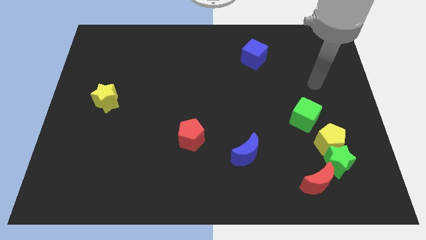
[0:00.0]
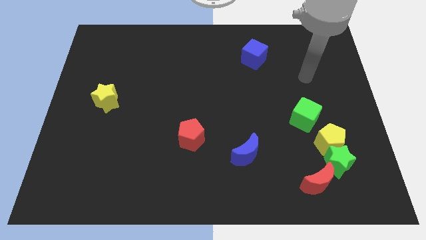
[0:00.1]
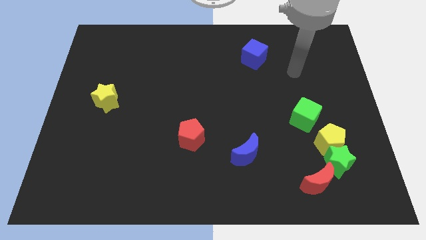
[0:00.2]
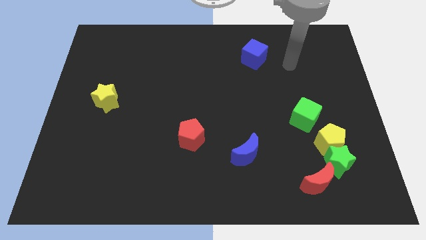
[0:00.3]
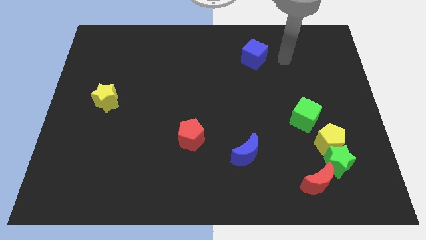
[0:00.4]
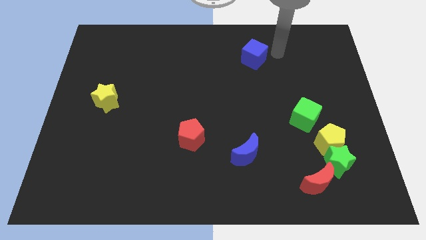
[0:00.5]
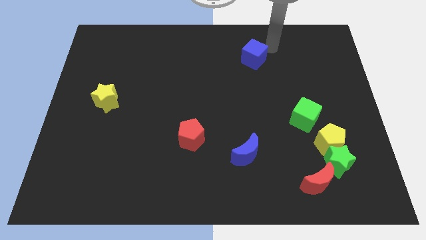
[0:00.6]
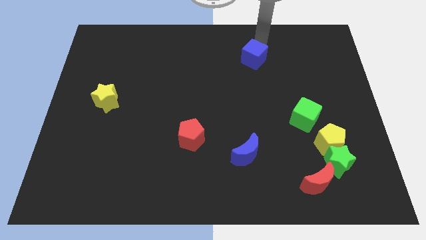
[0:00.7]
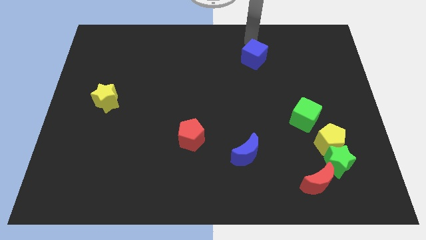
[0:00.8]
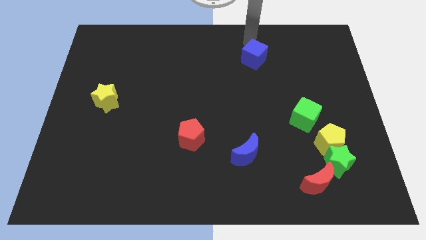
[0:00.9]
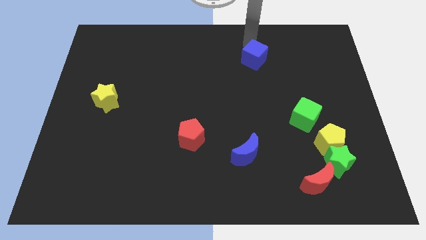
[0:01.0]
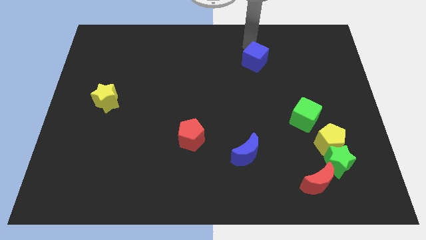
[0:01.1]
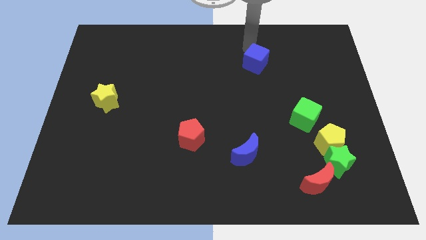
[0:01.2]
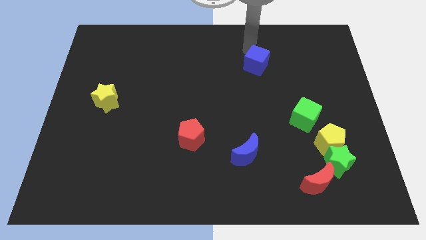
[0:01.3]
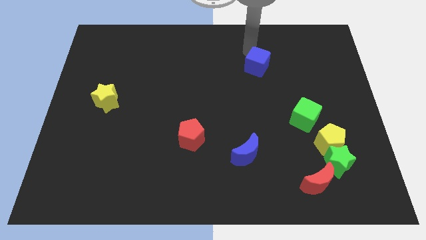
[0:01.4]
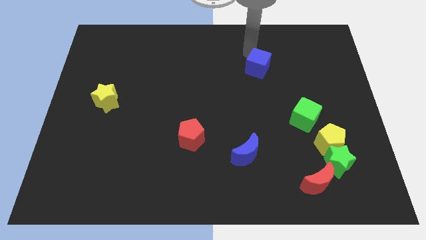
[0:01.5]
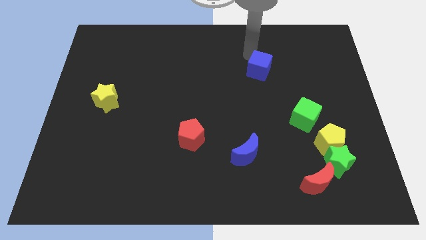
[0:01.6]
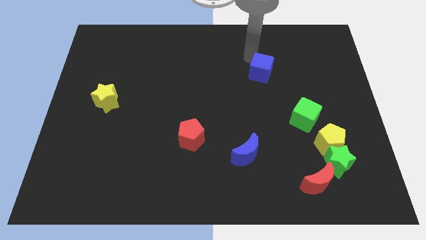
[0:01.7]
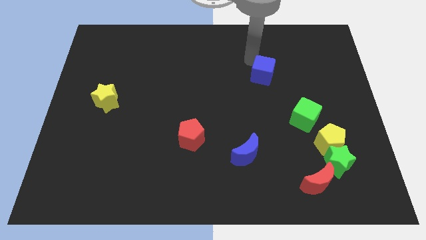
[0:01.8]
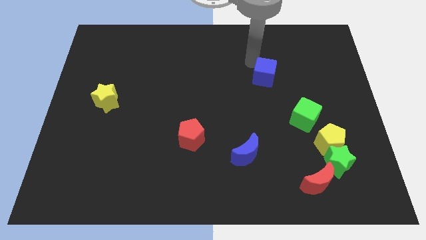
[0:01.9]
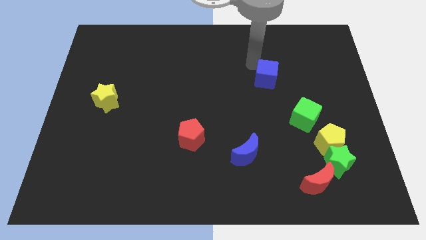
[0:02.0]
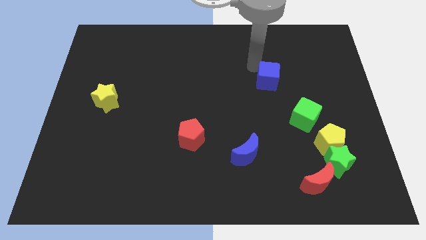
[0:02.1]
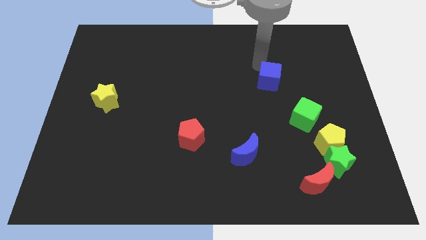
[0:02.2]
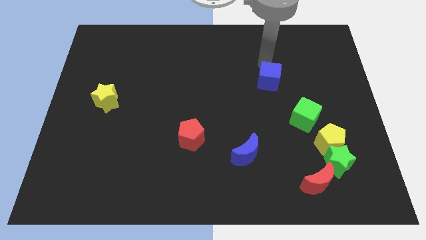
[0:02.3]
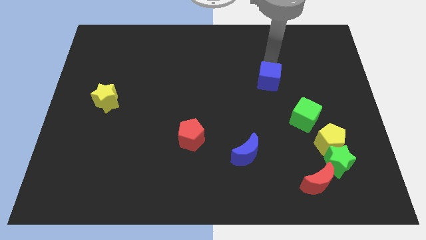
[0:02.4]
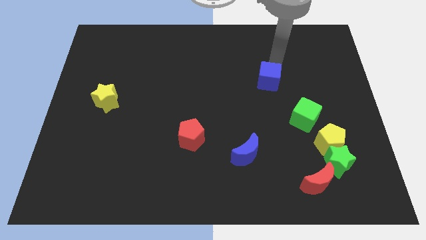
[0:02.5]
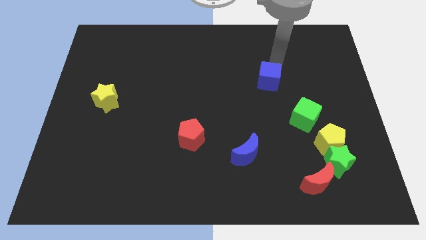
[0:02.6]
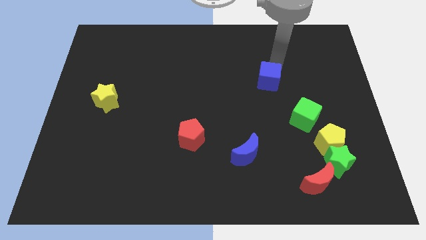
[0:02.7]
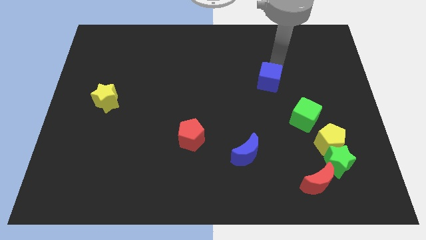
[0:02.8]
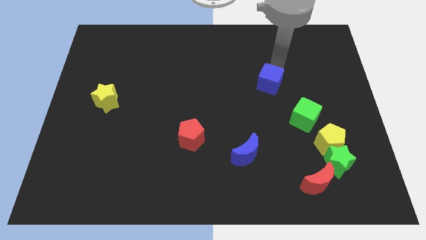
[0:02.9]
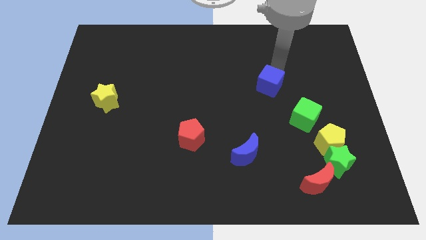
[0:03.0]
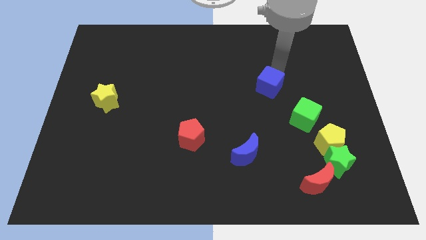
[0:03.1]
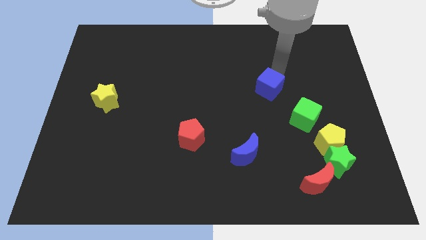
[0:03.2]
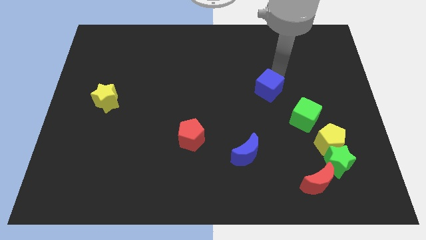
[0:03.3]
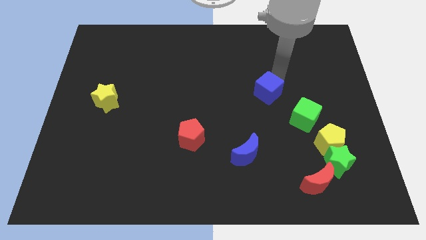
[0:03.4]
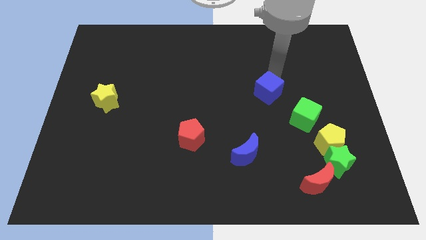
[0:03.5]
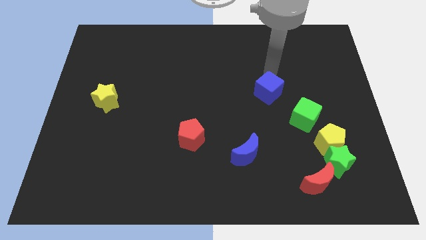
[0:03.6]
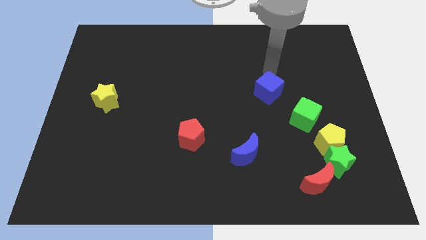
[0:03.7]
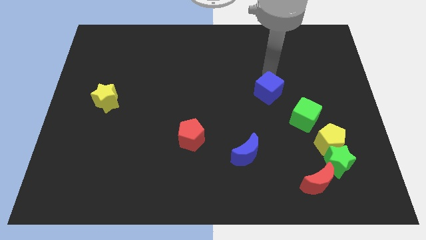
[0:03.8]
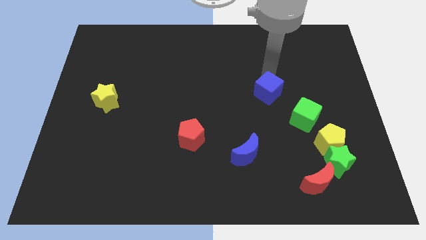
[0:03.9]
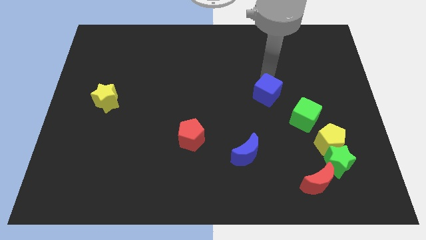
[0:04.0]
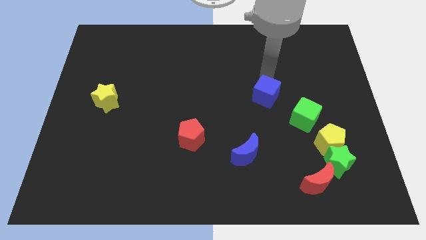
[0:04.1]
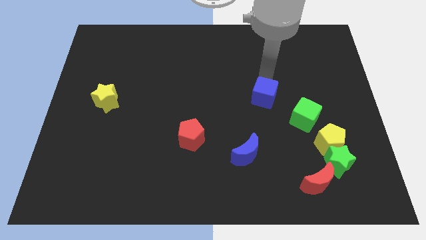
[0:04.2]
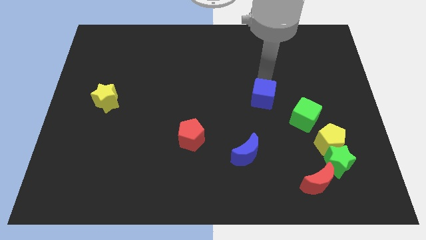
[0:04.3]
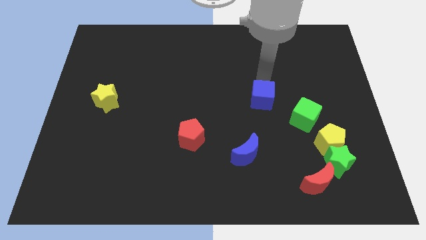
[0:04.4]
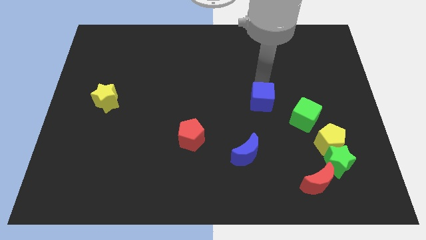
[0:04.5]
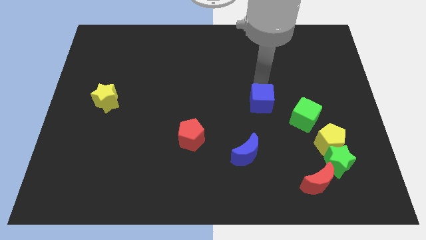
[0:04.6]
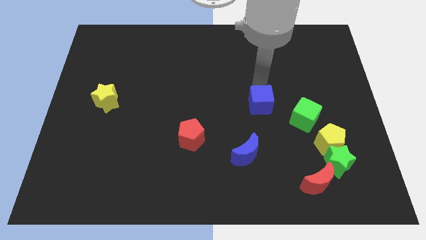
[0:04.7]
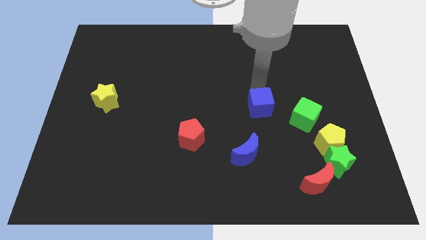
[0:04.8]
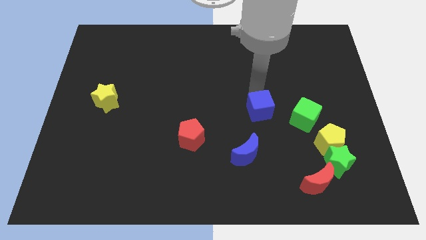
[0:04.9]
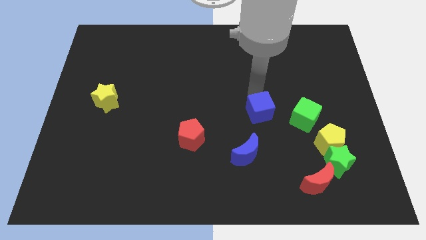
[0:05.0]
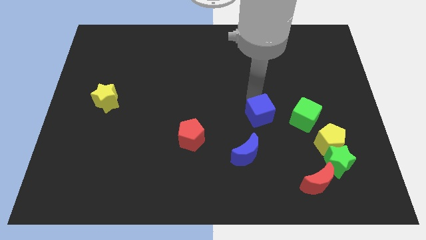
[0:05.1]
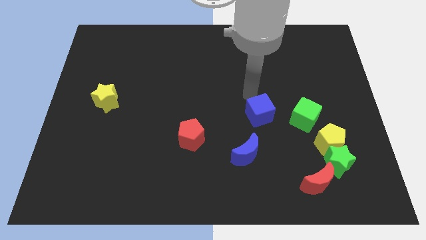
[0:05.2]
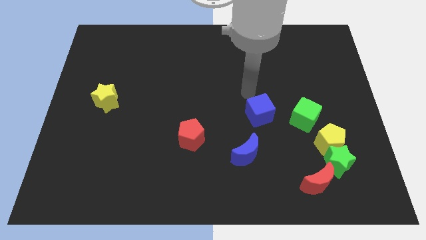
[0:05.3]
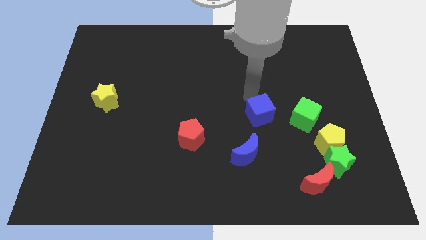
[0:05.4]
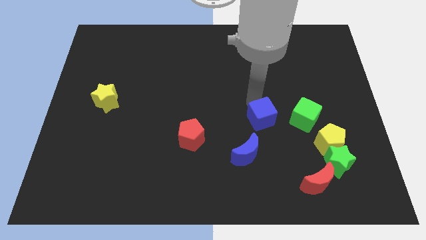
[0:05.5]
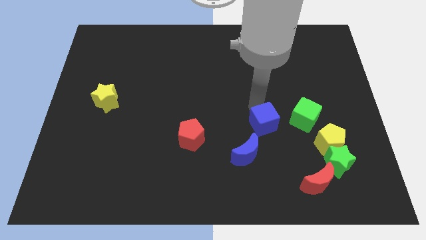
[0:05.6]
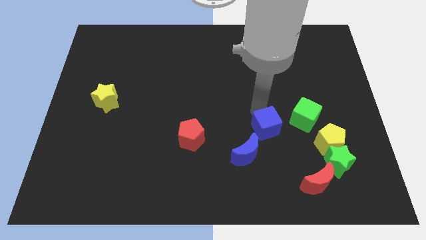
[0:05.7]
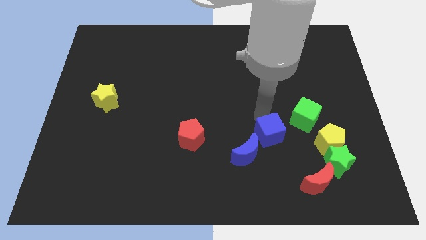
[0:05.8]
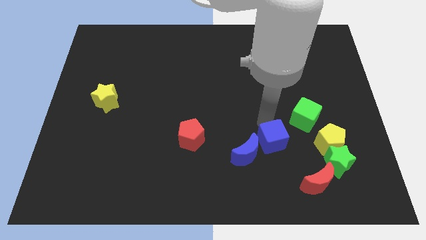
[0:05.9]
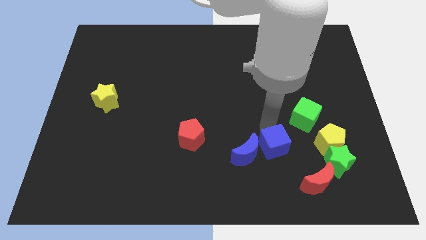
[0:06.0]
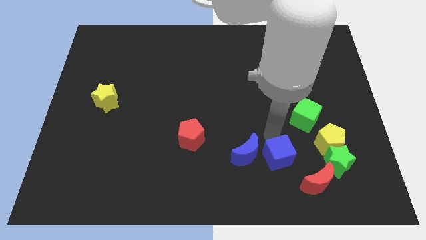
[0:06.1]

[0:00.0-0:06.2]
slide the blue cube diagonally down and to the right of the blue moon

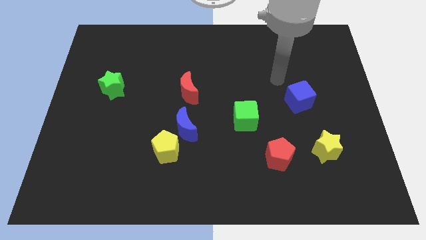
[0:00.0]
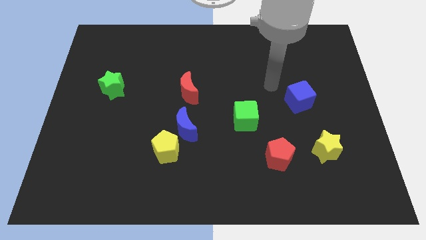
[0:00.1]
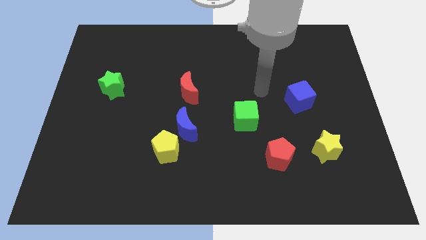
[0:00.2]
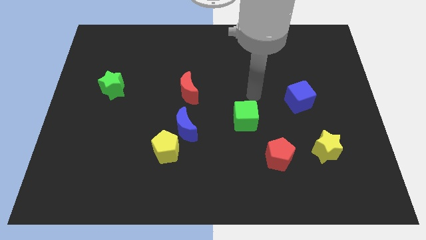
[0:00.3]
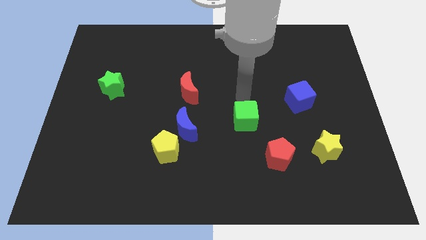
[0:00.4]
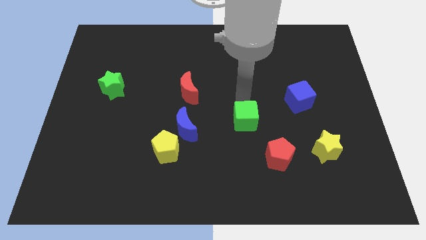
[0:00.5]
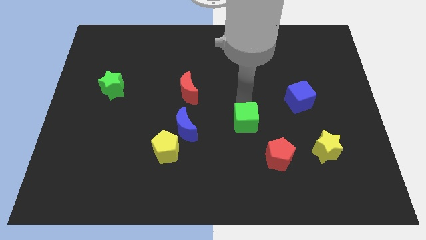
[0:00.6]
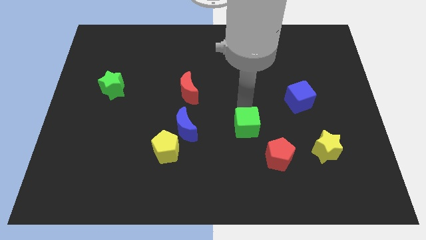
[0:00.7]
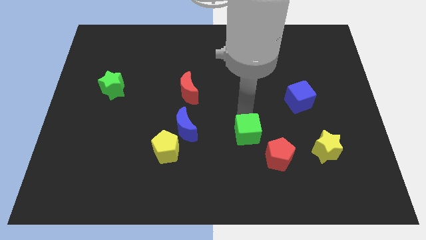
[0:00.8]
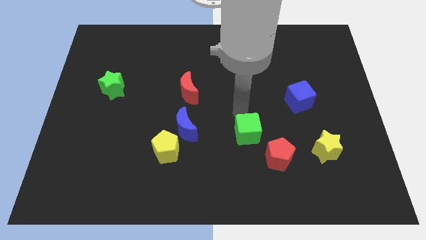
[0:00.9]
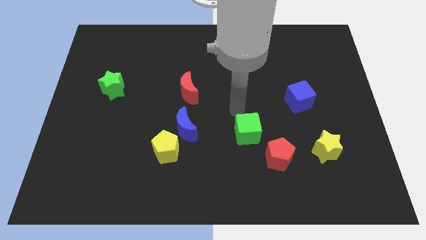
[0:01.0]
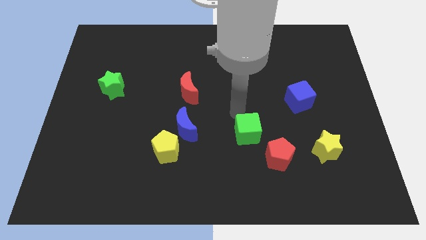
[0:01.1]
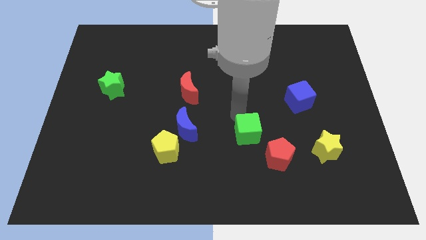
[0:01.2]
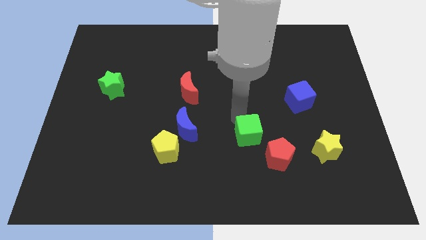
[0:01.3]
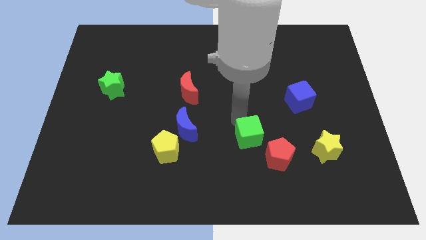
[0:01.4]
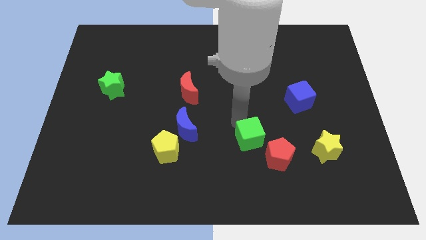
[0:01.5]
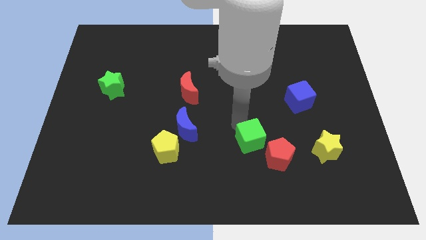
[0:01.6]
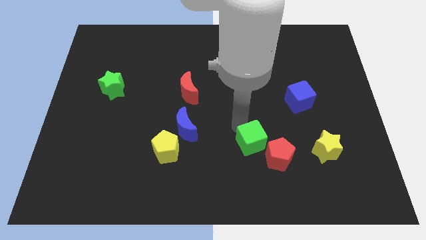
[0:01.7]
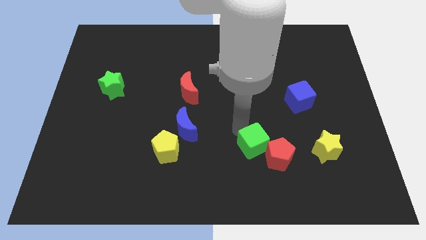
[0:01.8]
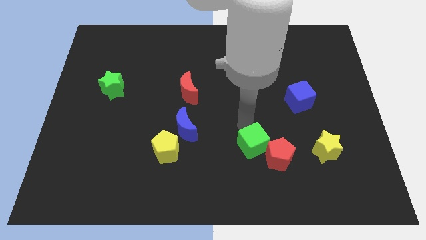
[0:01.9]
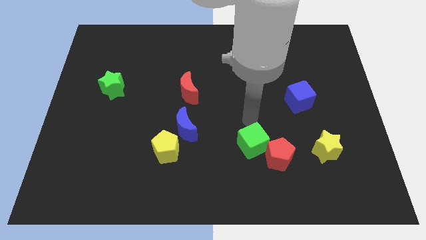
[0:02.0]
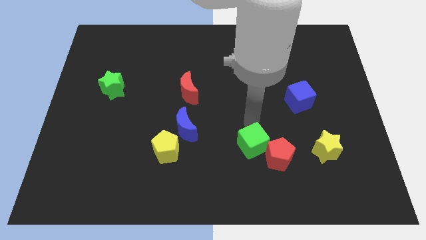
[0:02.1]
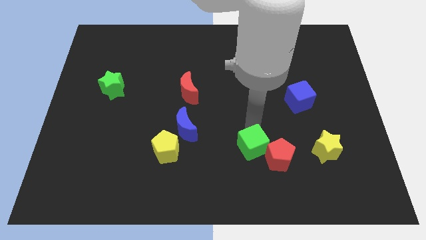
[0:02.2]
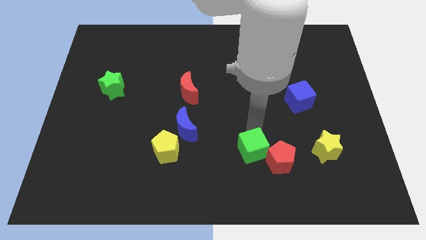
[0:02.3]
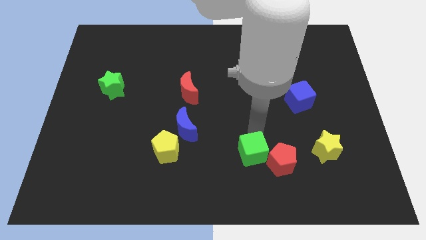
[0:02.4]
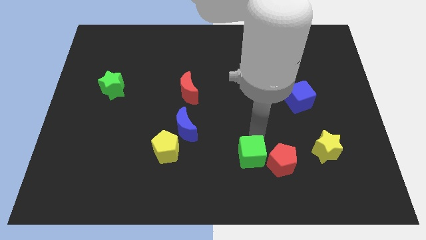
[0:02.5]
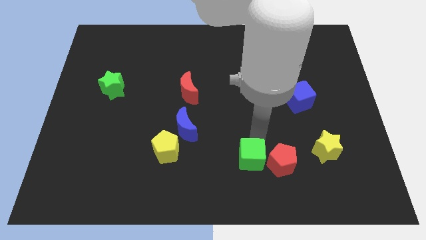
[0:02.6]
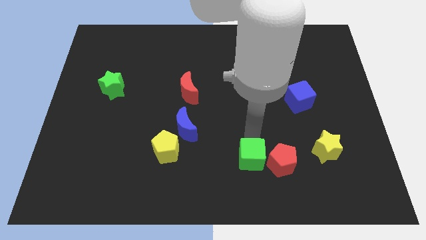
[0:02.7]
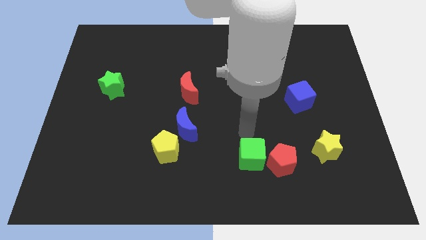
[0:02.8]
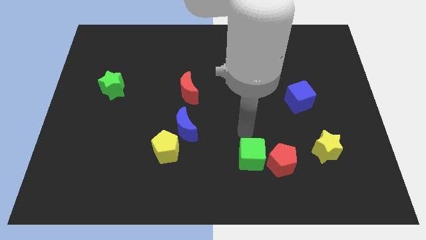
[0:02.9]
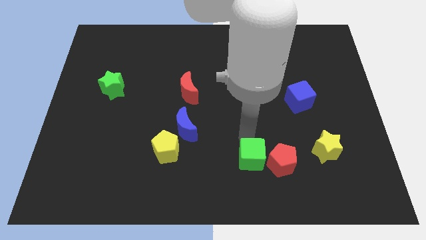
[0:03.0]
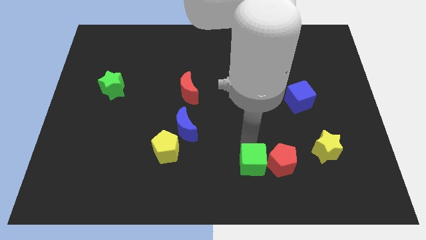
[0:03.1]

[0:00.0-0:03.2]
push the green cube to the bottom left of the red pentagon
